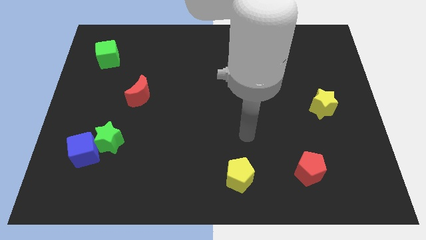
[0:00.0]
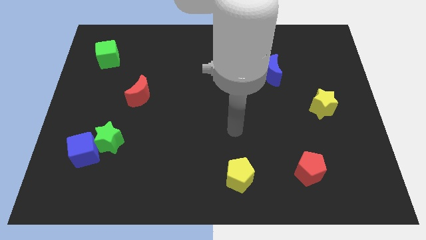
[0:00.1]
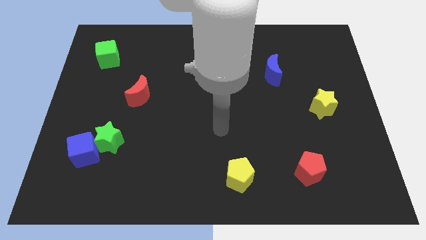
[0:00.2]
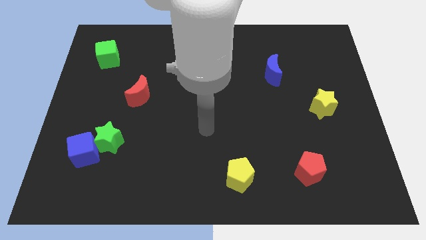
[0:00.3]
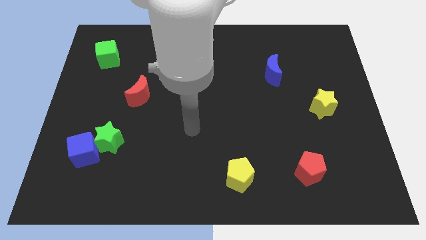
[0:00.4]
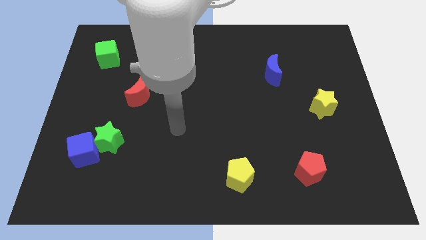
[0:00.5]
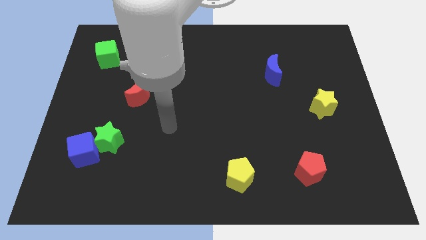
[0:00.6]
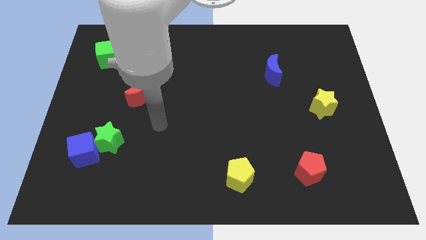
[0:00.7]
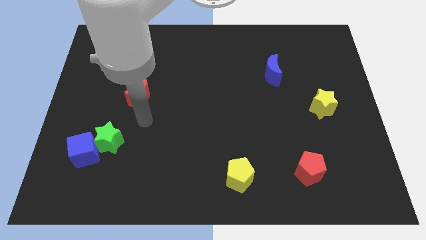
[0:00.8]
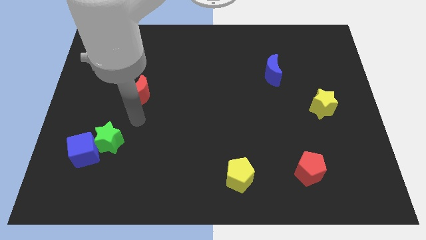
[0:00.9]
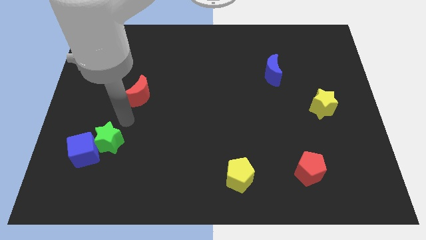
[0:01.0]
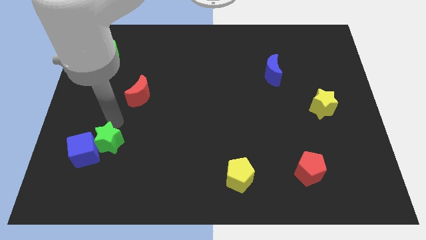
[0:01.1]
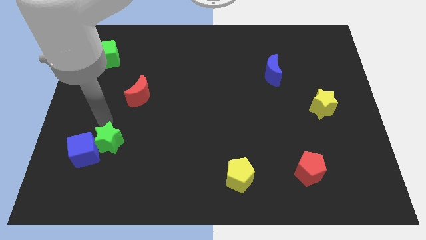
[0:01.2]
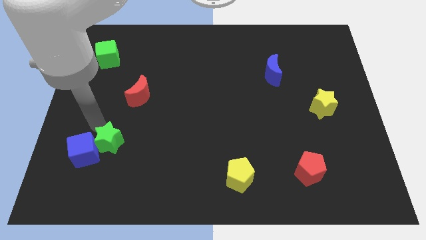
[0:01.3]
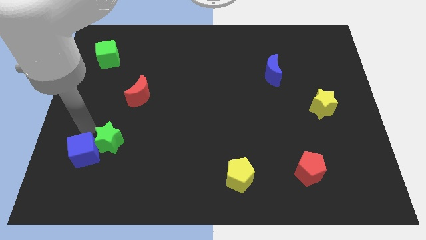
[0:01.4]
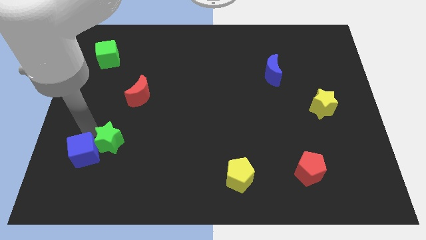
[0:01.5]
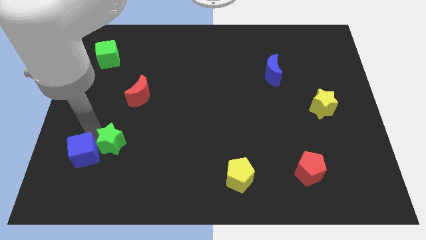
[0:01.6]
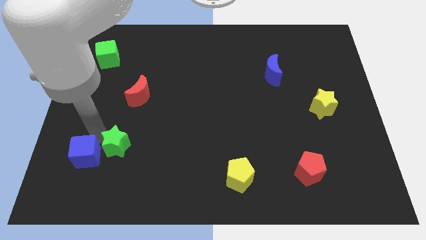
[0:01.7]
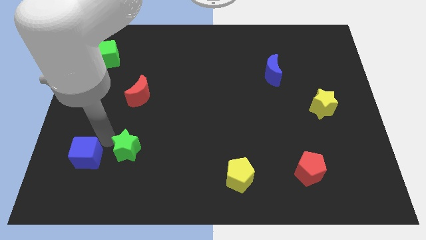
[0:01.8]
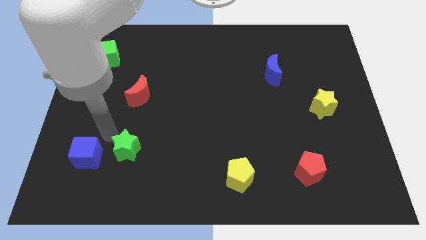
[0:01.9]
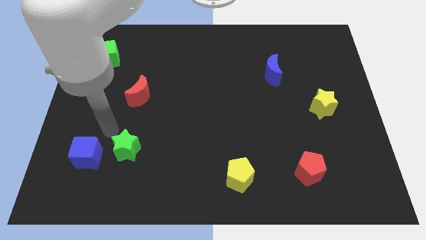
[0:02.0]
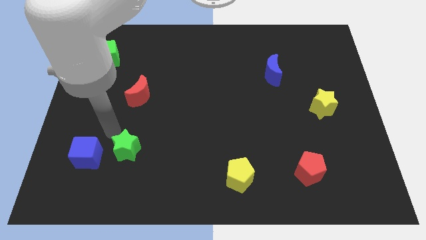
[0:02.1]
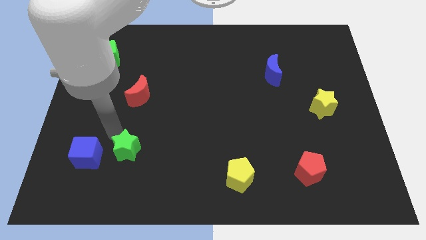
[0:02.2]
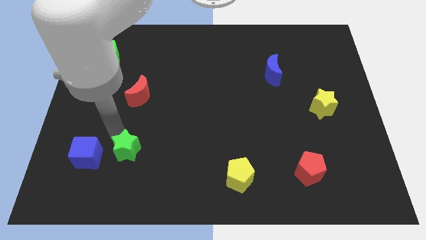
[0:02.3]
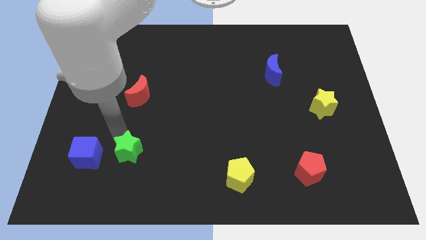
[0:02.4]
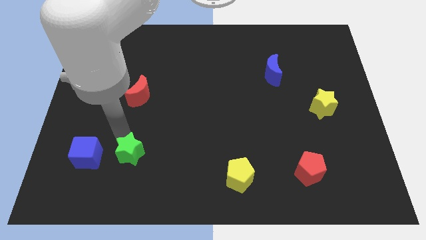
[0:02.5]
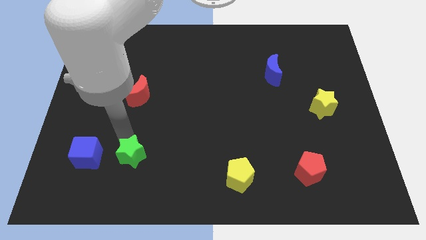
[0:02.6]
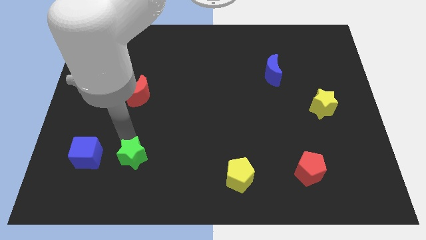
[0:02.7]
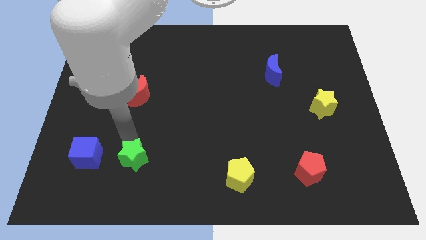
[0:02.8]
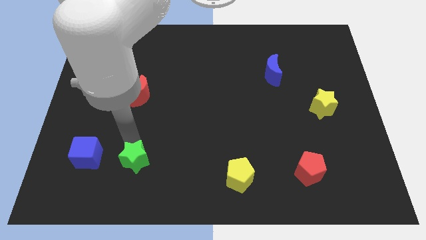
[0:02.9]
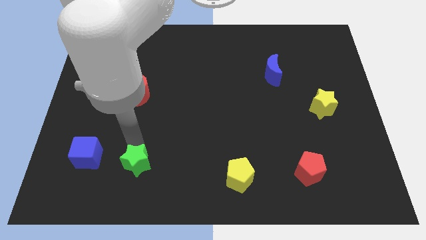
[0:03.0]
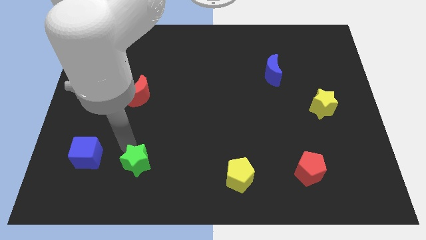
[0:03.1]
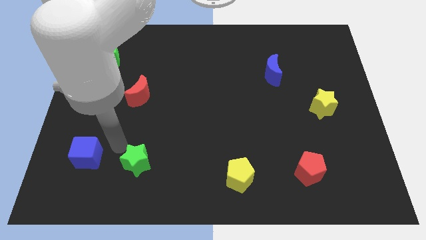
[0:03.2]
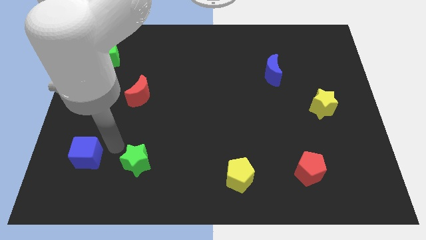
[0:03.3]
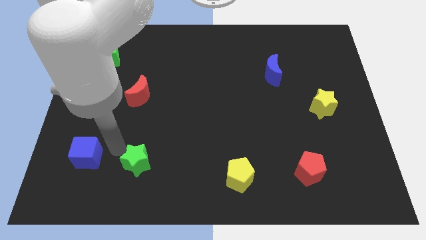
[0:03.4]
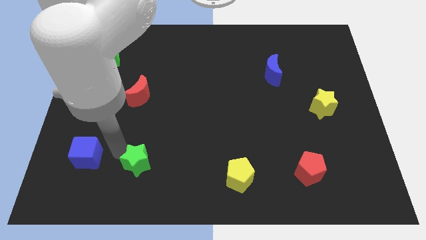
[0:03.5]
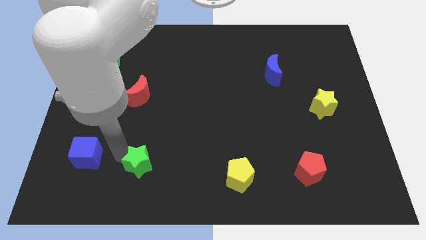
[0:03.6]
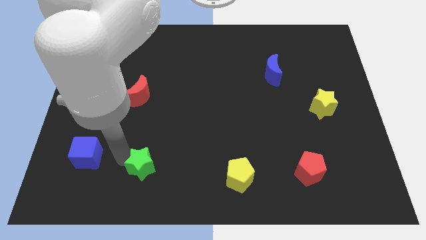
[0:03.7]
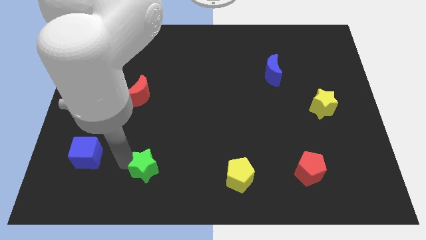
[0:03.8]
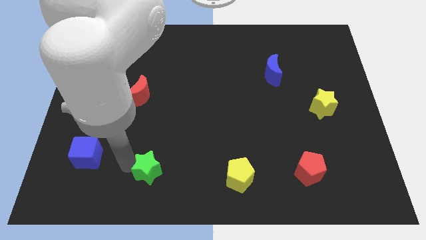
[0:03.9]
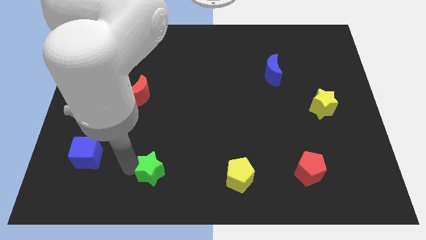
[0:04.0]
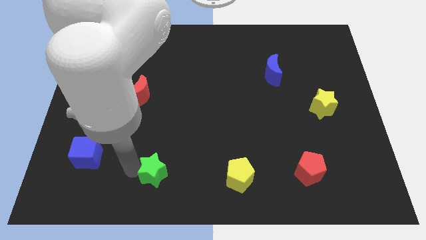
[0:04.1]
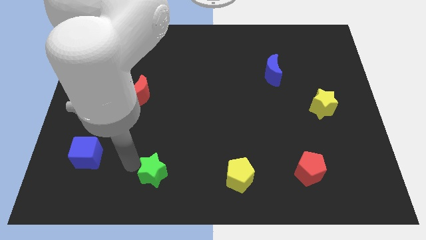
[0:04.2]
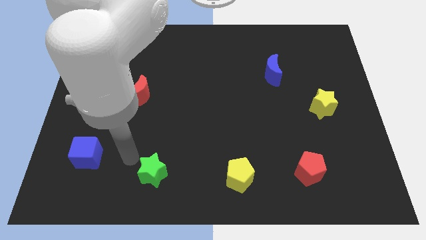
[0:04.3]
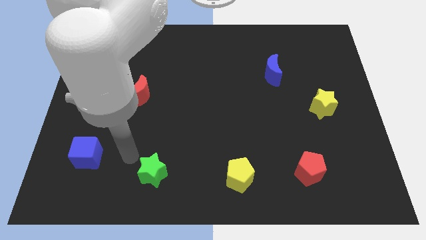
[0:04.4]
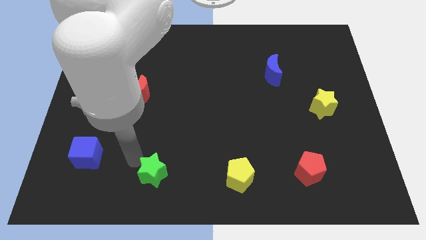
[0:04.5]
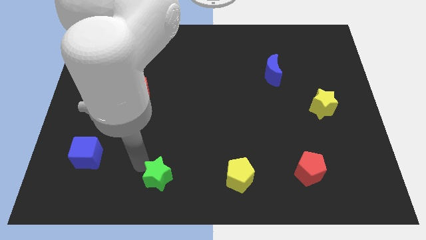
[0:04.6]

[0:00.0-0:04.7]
put the green star to the bottom side

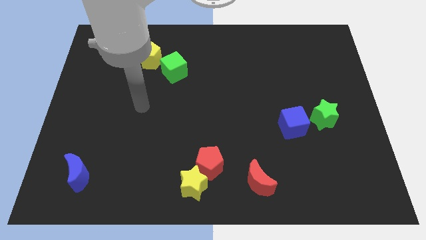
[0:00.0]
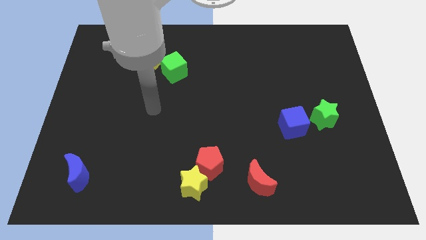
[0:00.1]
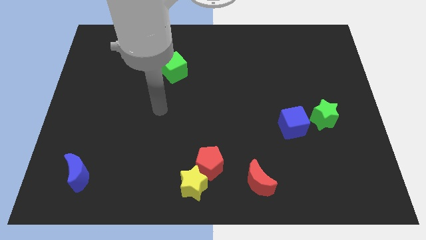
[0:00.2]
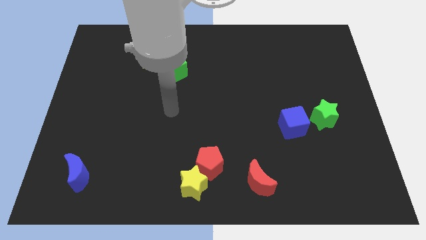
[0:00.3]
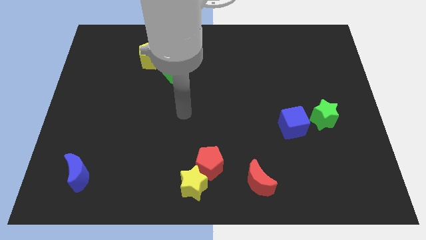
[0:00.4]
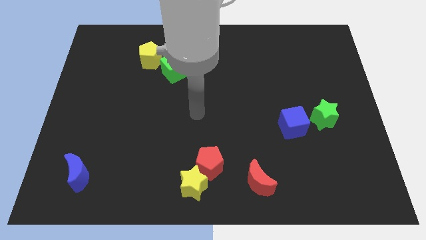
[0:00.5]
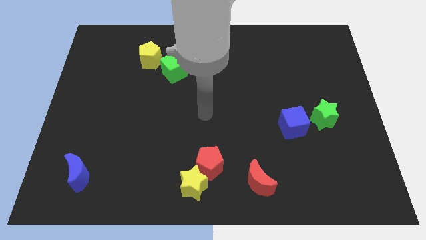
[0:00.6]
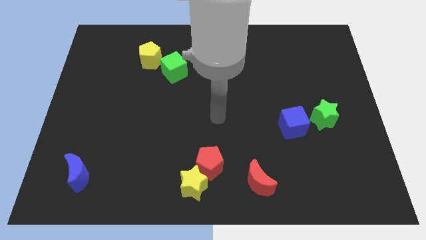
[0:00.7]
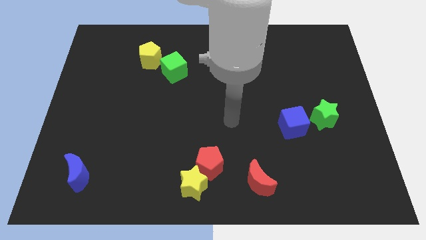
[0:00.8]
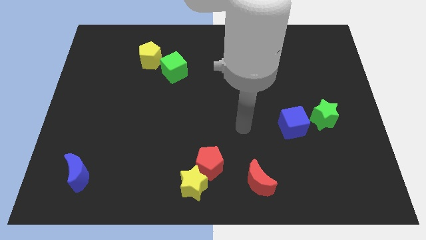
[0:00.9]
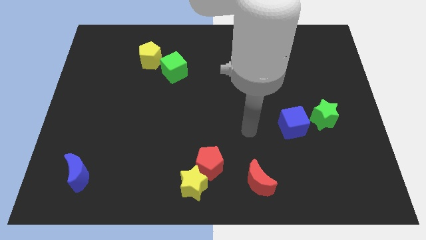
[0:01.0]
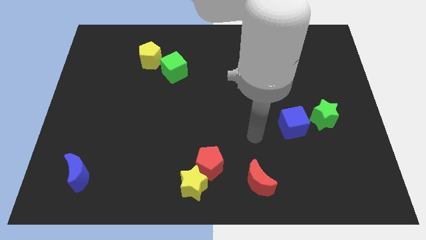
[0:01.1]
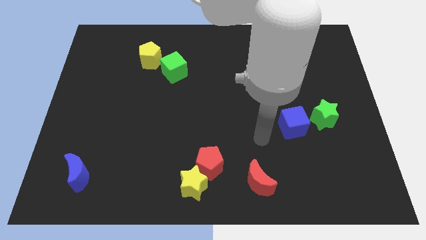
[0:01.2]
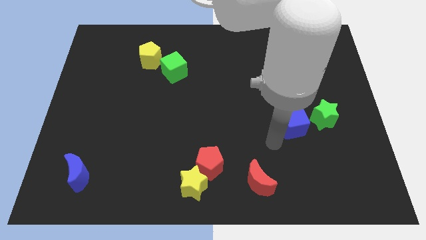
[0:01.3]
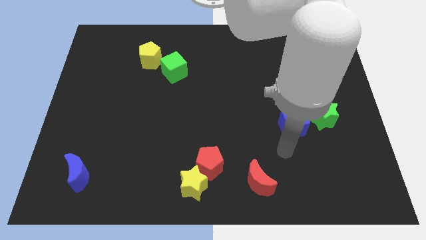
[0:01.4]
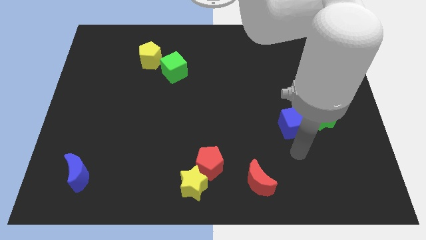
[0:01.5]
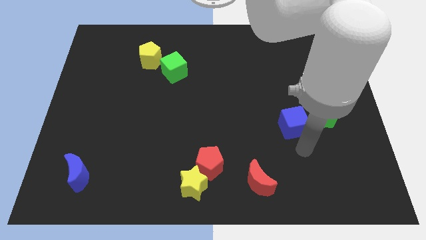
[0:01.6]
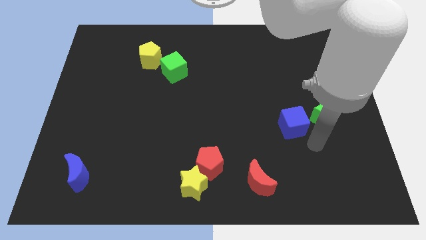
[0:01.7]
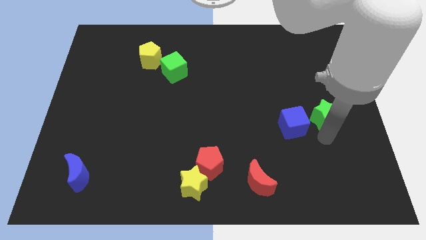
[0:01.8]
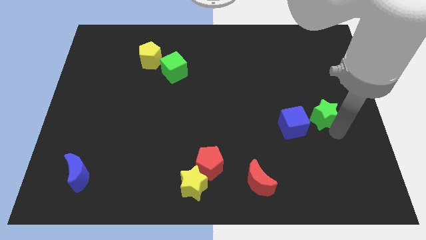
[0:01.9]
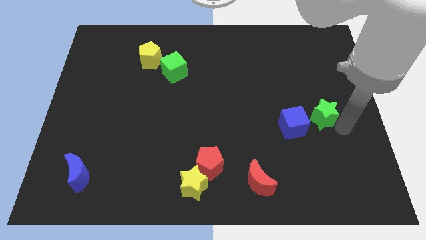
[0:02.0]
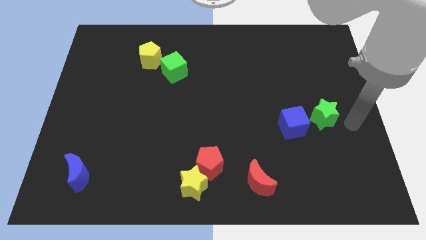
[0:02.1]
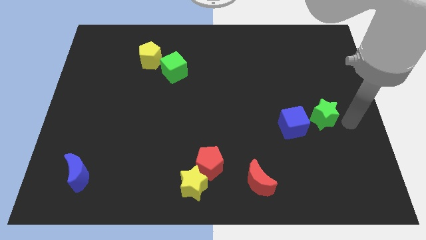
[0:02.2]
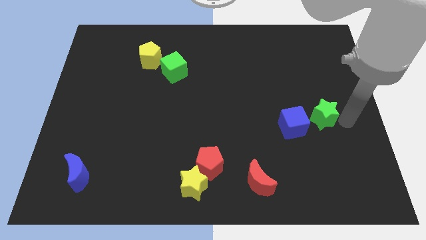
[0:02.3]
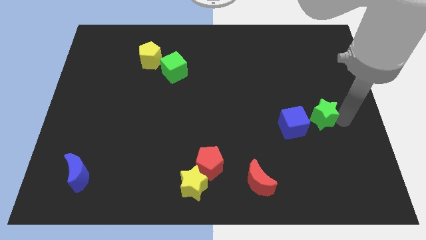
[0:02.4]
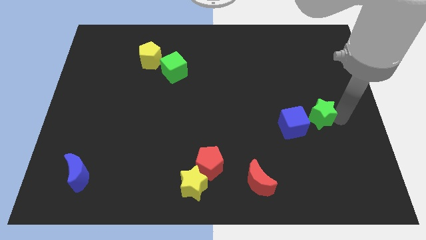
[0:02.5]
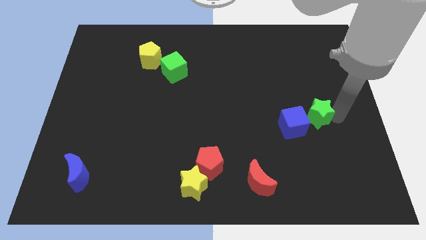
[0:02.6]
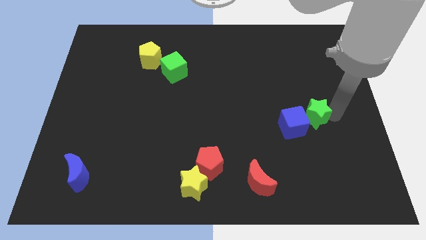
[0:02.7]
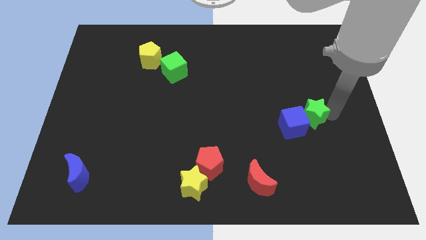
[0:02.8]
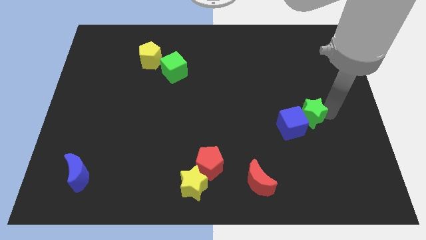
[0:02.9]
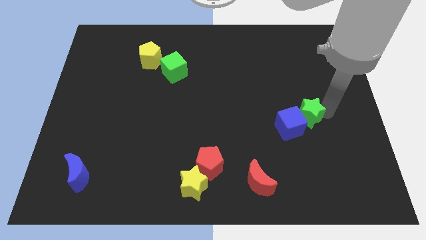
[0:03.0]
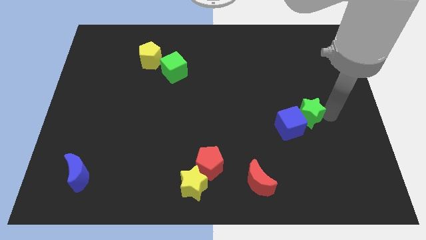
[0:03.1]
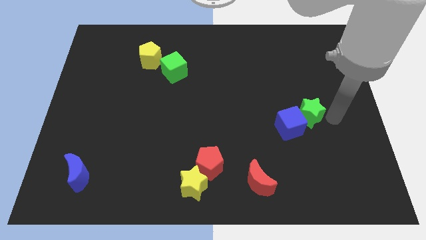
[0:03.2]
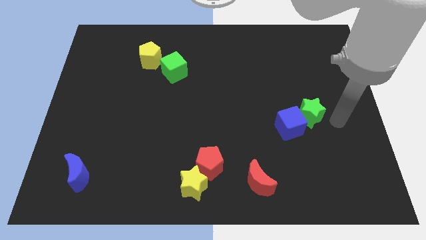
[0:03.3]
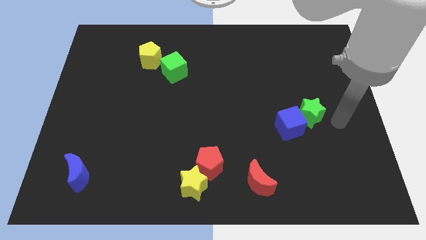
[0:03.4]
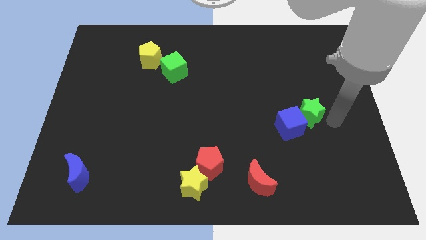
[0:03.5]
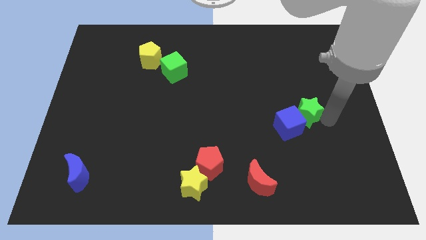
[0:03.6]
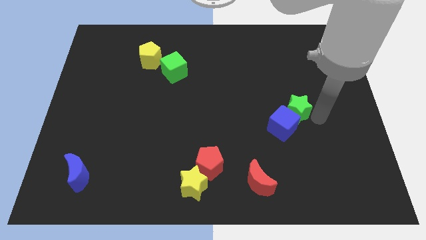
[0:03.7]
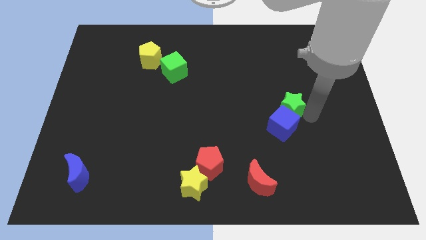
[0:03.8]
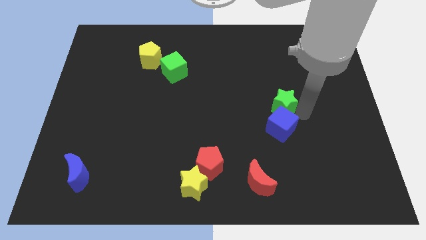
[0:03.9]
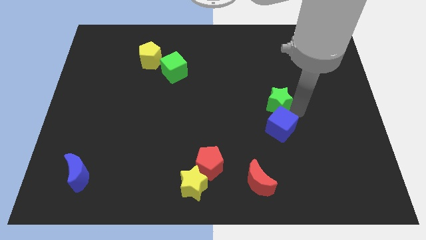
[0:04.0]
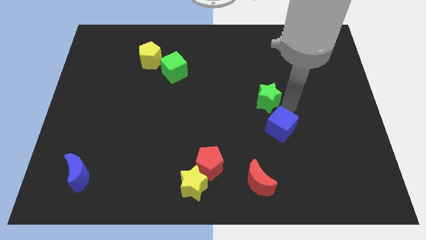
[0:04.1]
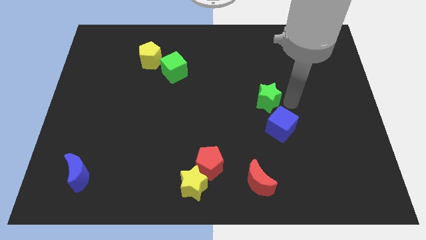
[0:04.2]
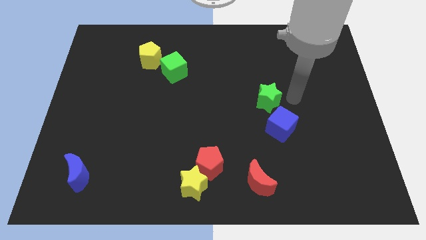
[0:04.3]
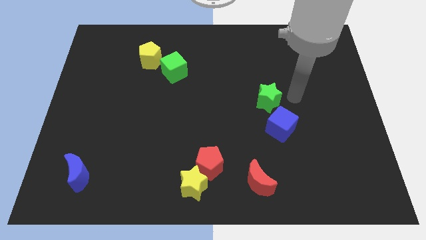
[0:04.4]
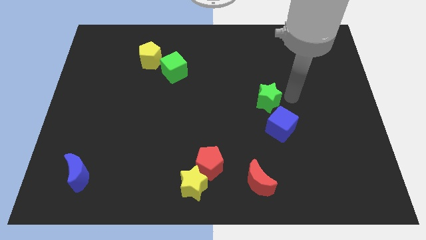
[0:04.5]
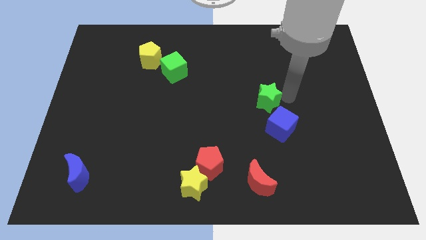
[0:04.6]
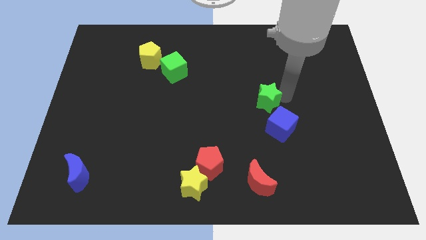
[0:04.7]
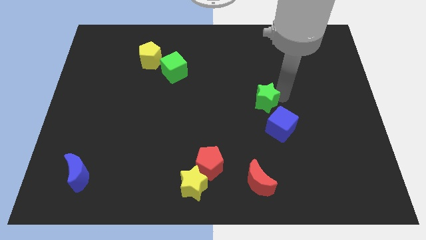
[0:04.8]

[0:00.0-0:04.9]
push the green star to the center
